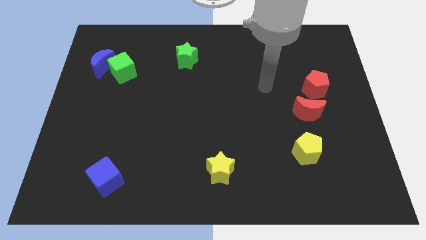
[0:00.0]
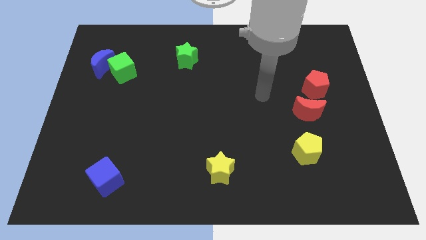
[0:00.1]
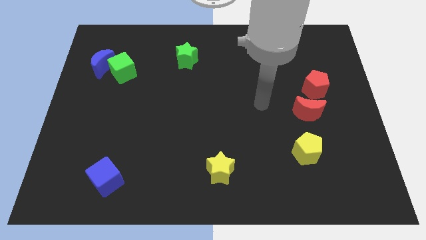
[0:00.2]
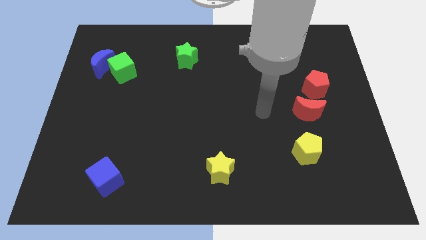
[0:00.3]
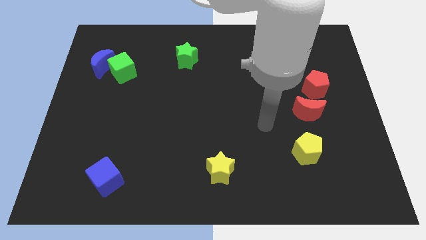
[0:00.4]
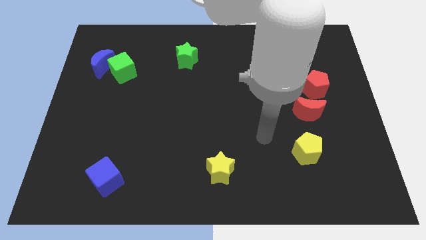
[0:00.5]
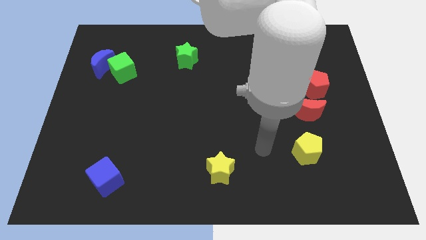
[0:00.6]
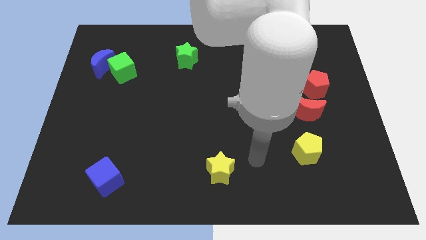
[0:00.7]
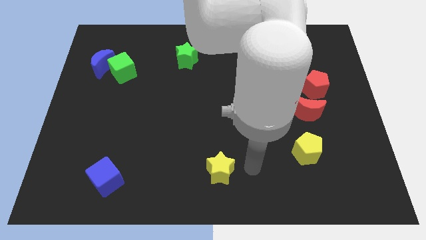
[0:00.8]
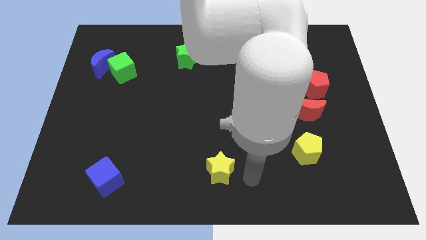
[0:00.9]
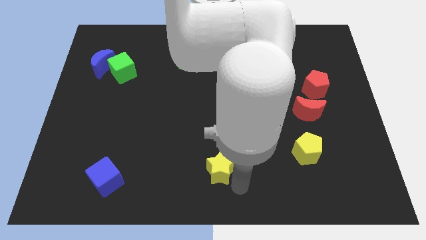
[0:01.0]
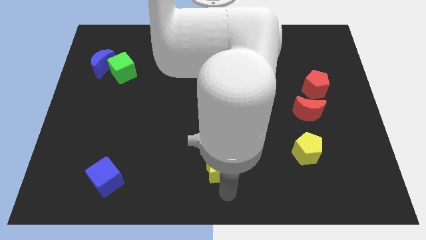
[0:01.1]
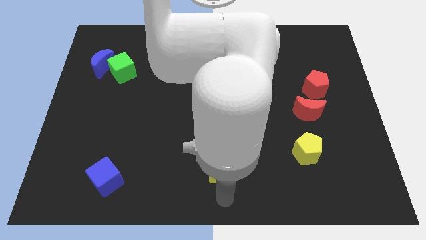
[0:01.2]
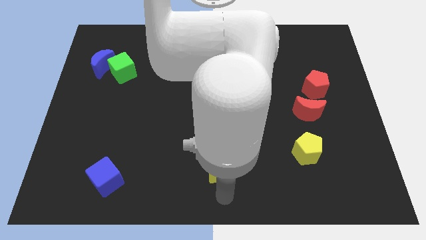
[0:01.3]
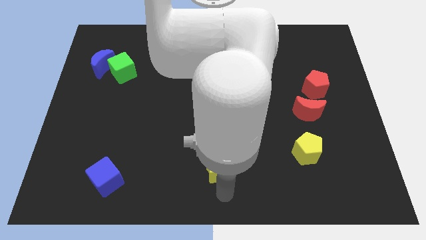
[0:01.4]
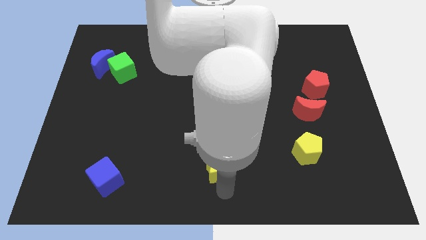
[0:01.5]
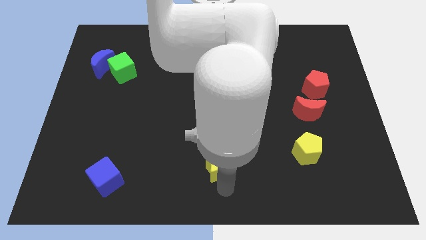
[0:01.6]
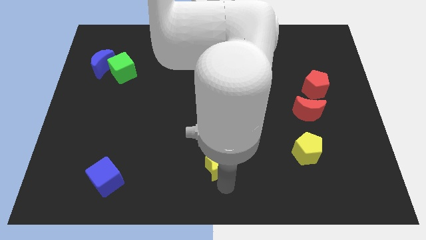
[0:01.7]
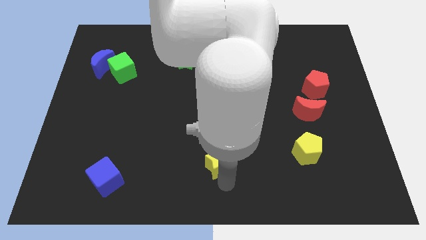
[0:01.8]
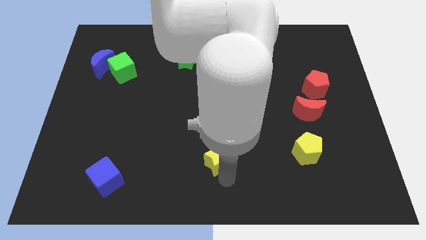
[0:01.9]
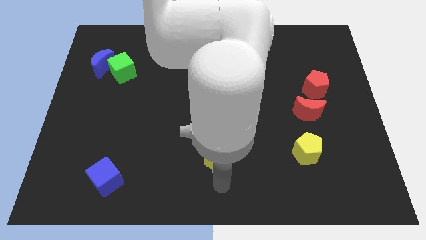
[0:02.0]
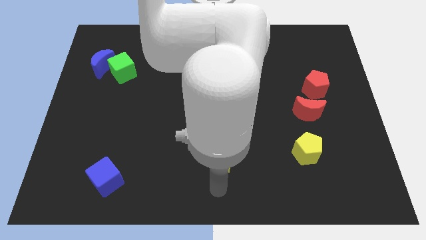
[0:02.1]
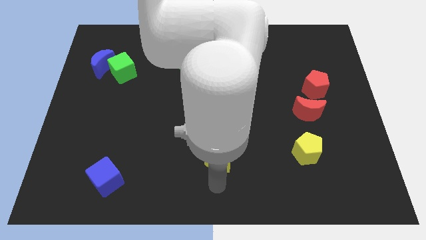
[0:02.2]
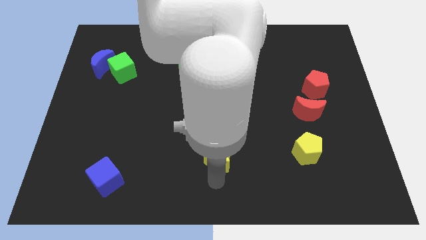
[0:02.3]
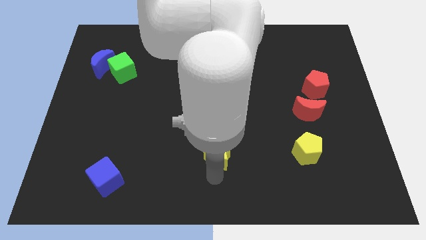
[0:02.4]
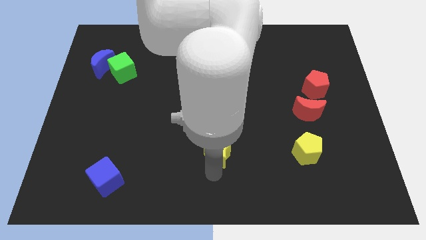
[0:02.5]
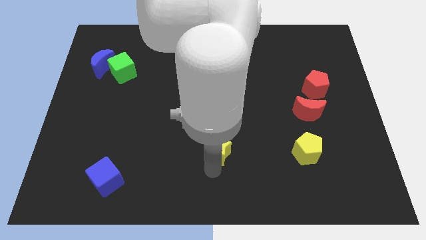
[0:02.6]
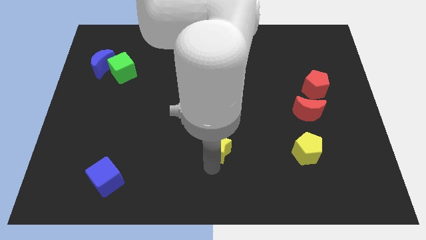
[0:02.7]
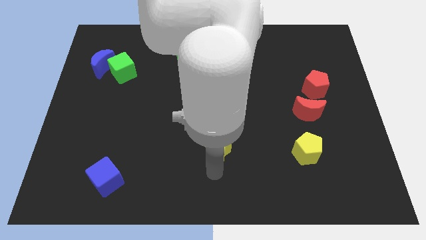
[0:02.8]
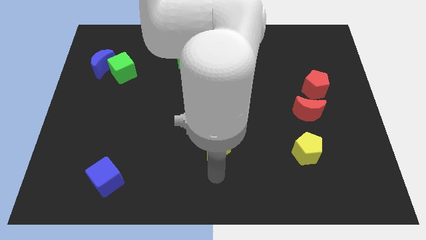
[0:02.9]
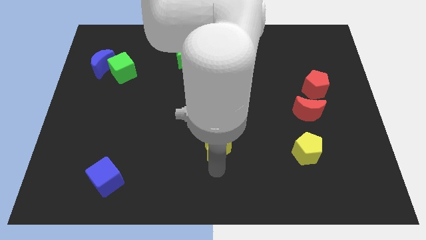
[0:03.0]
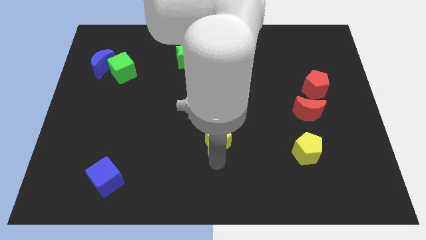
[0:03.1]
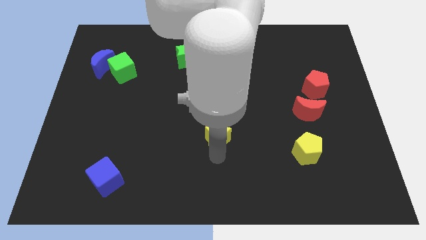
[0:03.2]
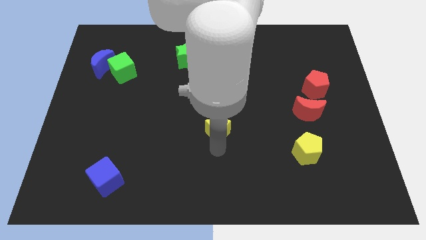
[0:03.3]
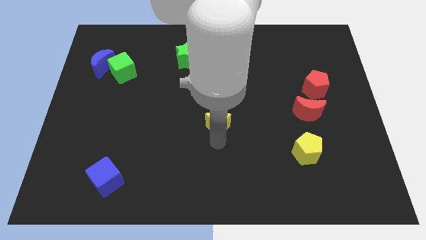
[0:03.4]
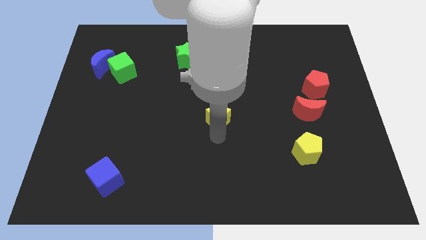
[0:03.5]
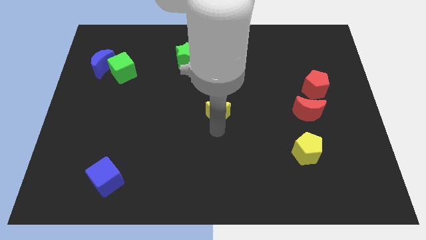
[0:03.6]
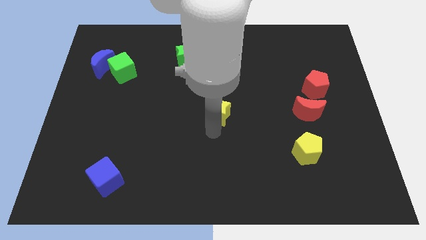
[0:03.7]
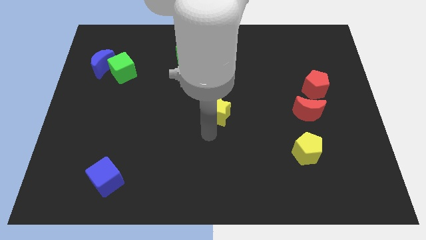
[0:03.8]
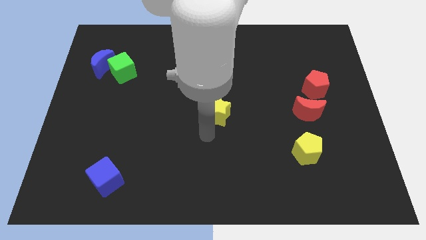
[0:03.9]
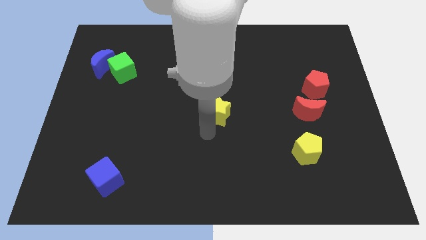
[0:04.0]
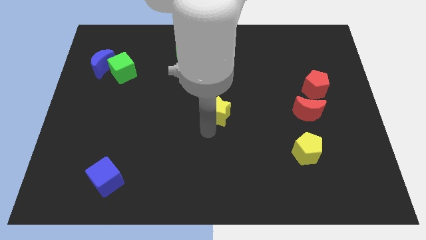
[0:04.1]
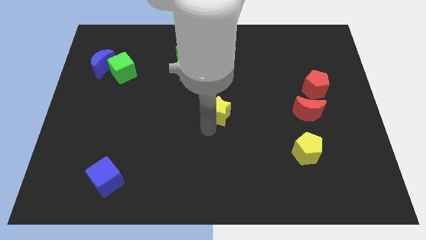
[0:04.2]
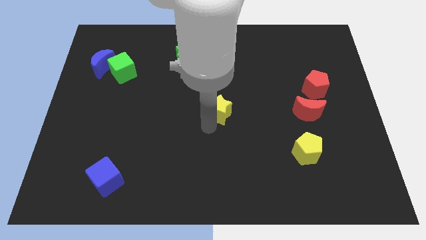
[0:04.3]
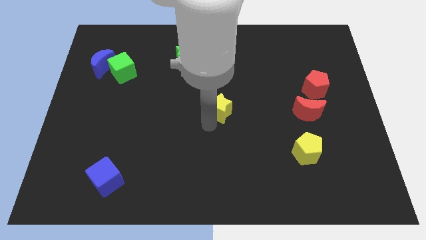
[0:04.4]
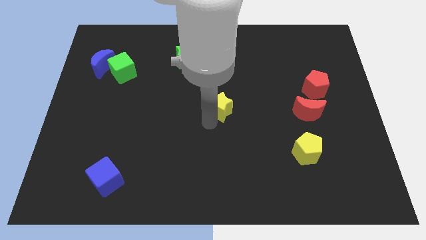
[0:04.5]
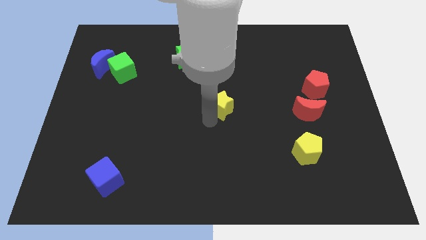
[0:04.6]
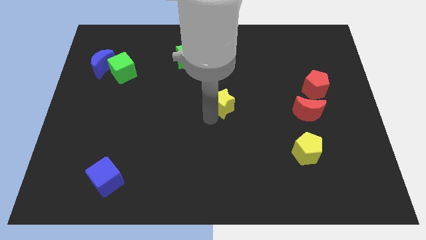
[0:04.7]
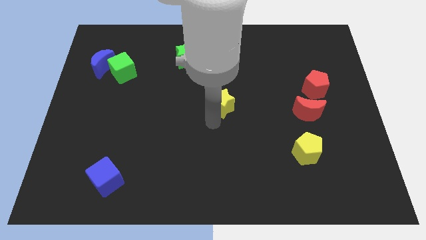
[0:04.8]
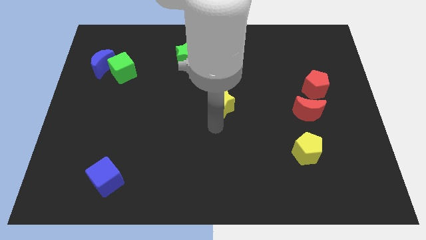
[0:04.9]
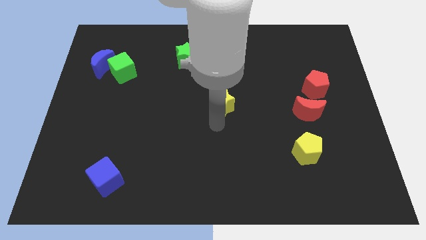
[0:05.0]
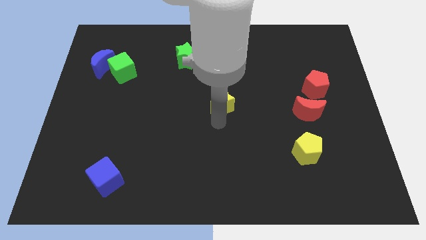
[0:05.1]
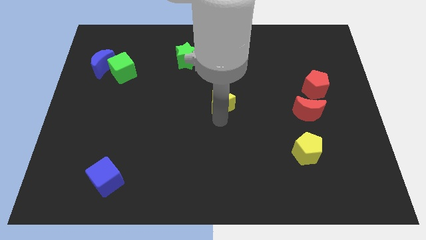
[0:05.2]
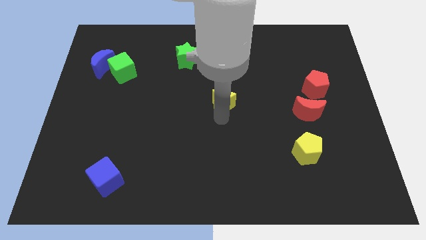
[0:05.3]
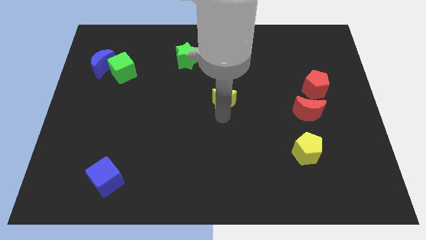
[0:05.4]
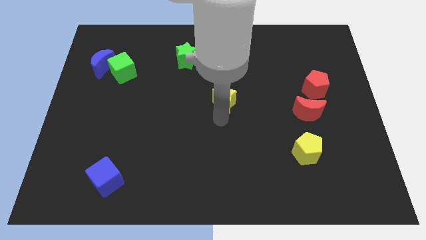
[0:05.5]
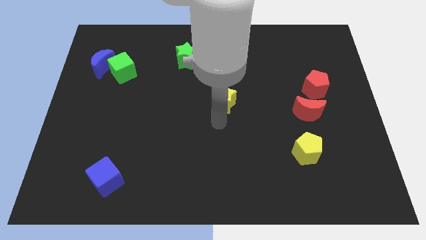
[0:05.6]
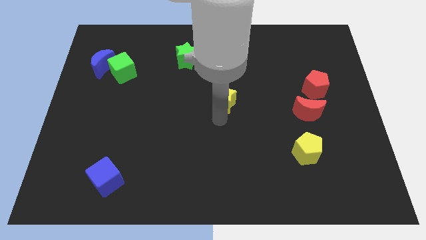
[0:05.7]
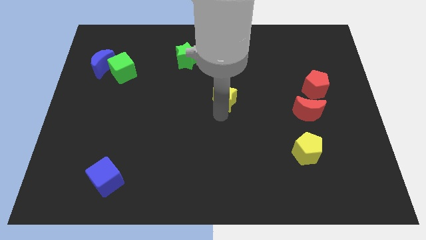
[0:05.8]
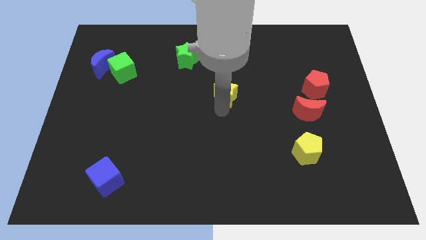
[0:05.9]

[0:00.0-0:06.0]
push the yellow star upwards

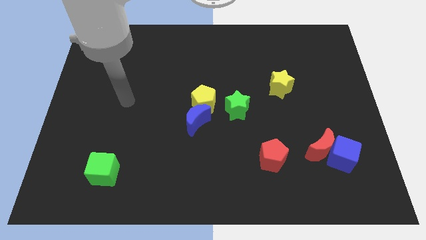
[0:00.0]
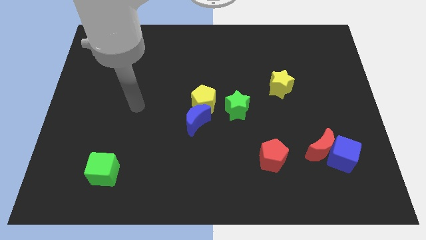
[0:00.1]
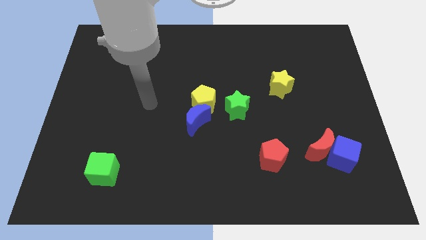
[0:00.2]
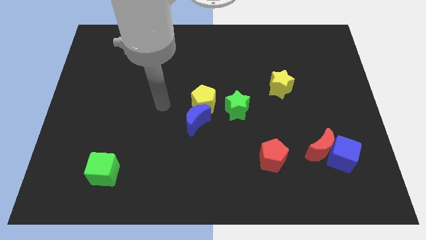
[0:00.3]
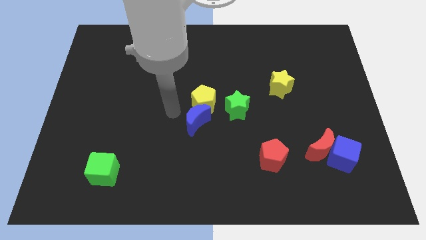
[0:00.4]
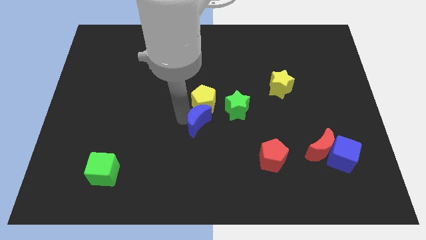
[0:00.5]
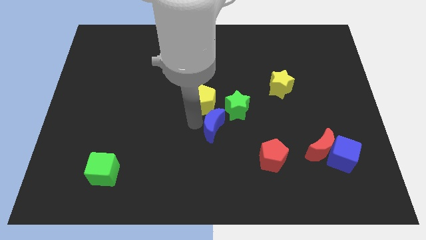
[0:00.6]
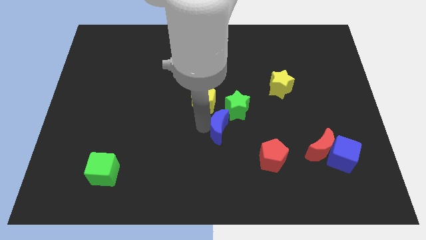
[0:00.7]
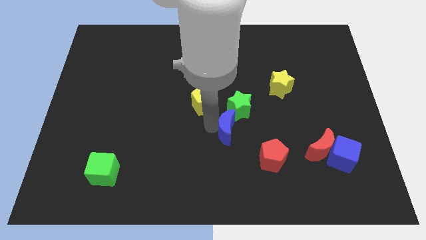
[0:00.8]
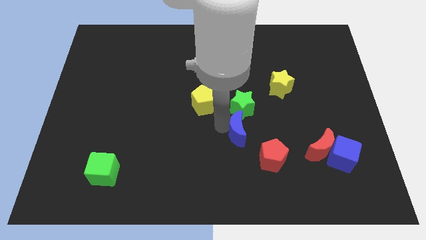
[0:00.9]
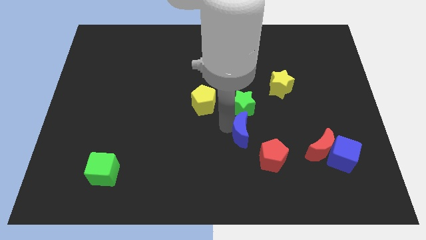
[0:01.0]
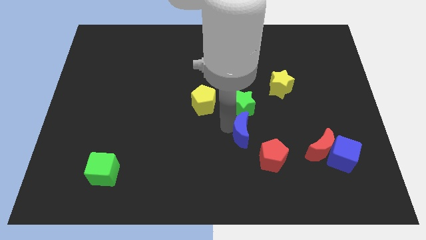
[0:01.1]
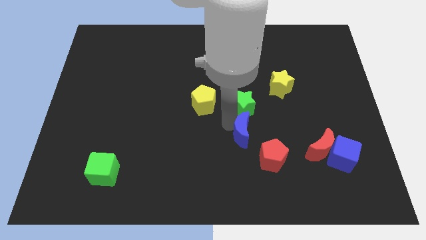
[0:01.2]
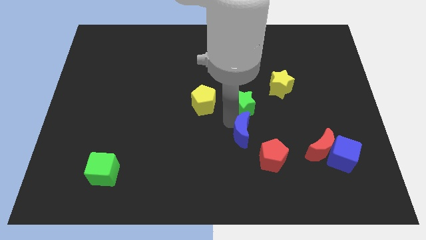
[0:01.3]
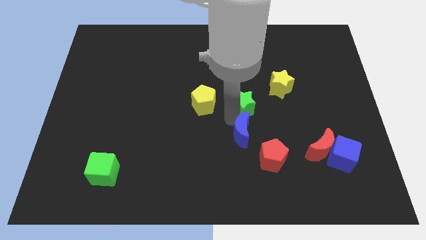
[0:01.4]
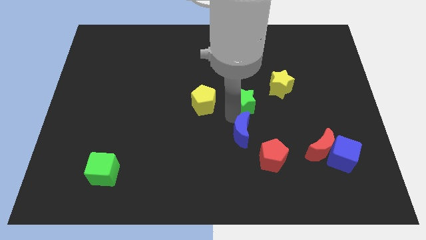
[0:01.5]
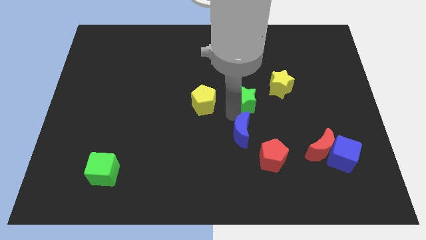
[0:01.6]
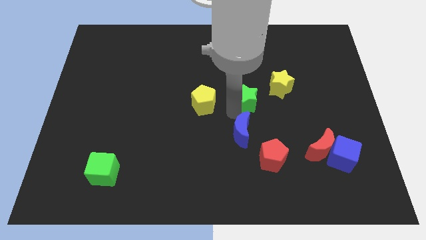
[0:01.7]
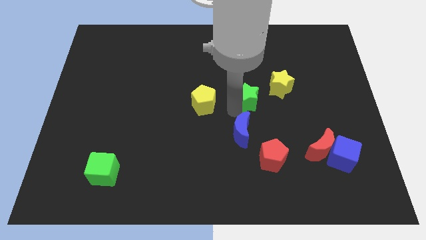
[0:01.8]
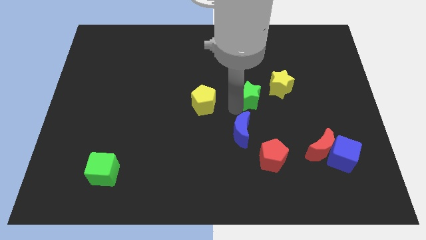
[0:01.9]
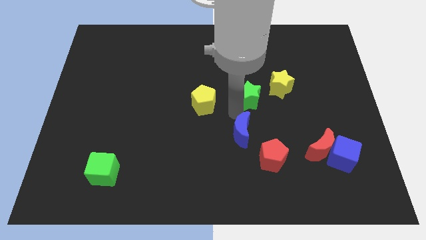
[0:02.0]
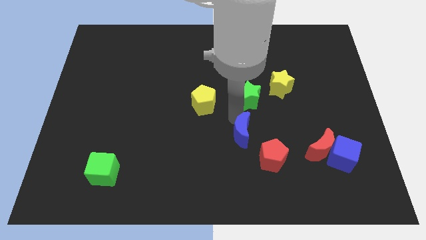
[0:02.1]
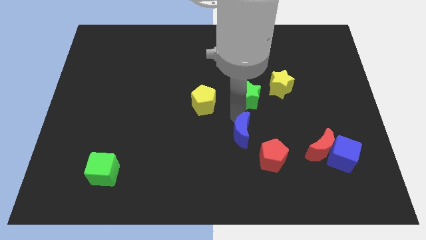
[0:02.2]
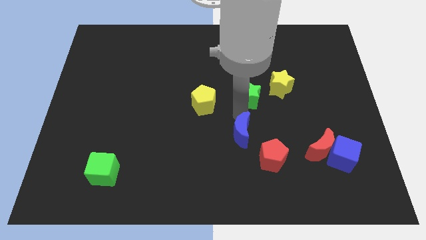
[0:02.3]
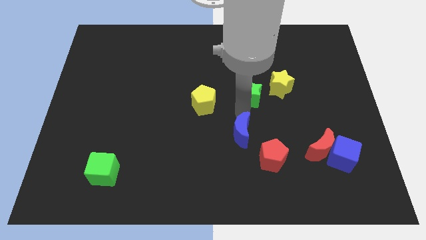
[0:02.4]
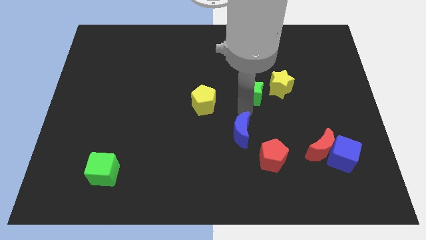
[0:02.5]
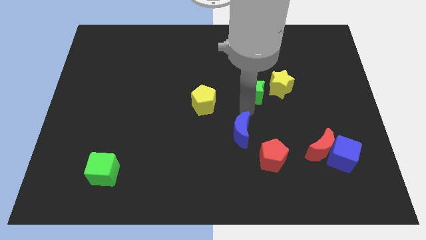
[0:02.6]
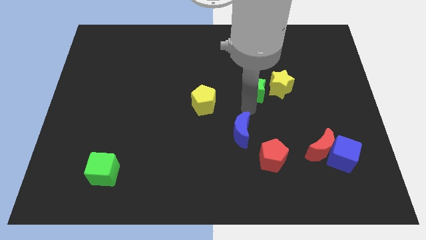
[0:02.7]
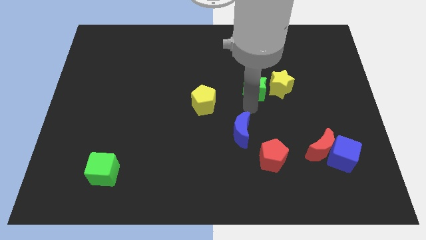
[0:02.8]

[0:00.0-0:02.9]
slightly push the green star upwards and to the right

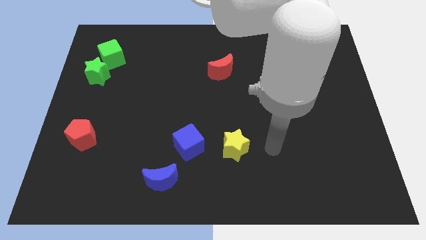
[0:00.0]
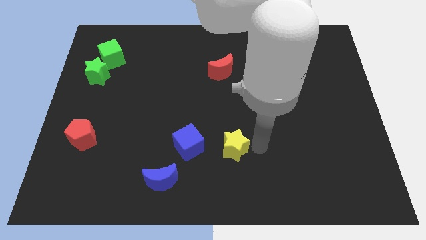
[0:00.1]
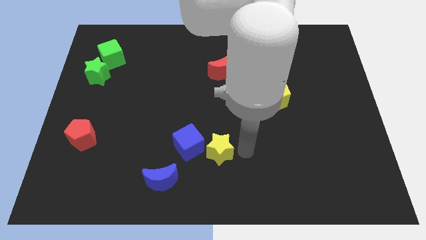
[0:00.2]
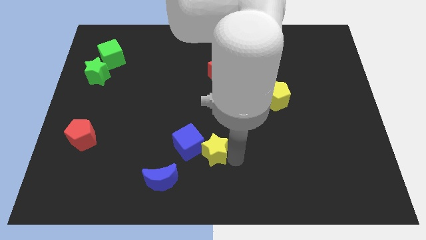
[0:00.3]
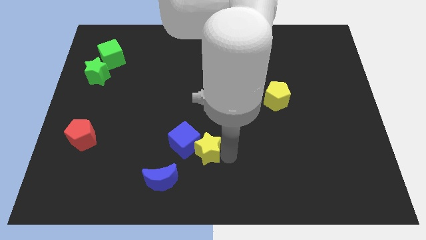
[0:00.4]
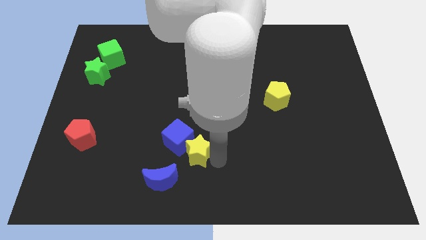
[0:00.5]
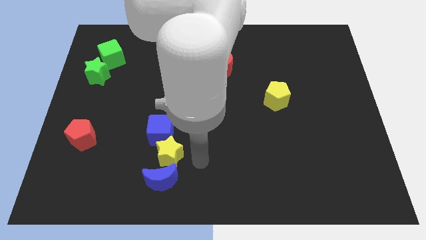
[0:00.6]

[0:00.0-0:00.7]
push the blue cube somewhat upwards and then left
